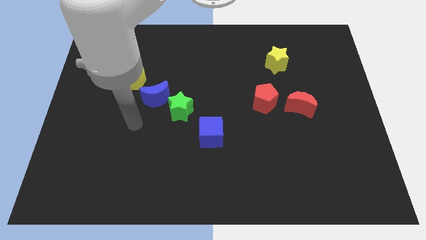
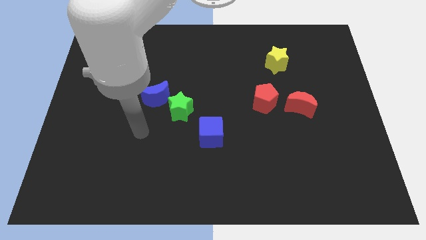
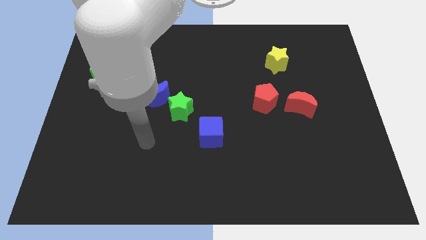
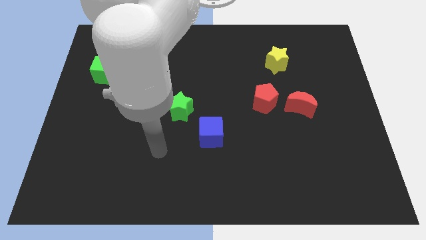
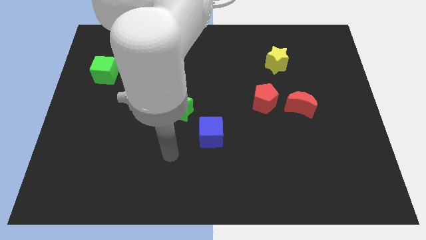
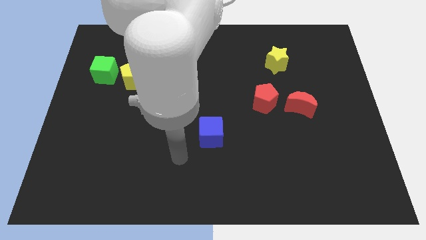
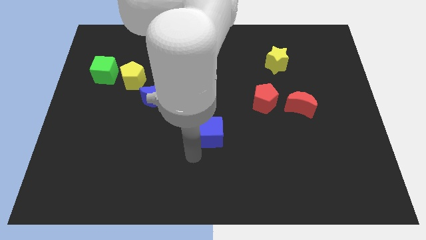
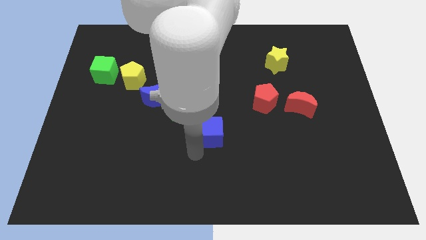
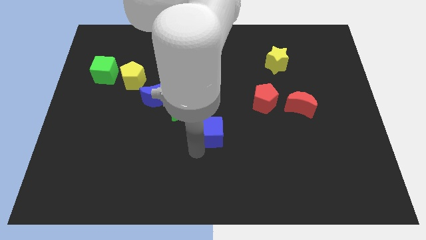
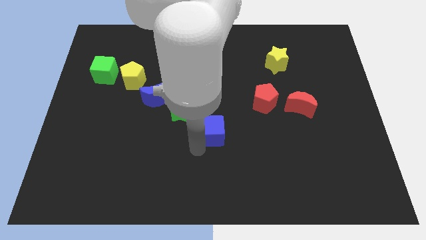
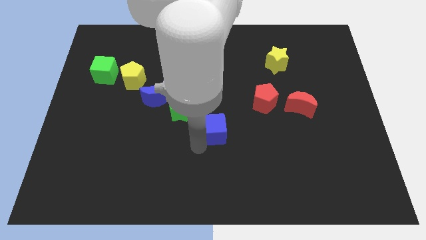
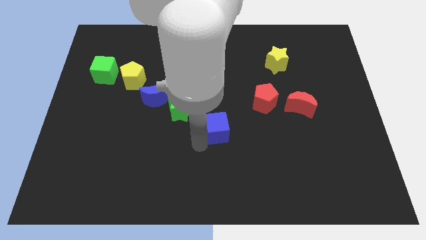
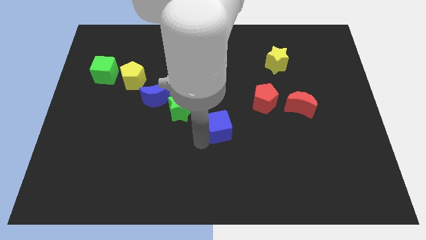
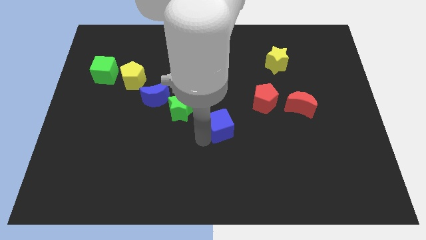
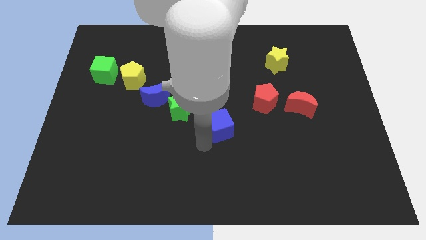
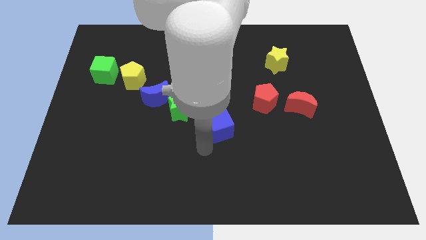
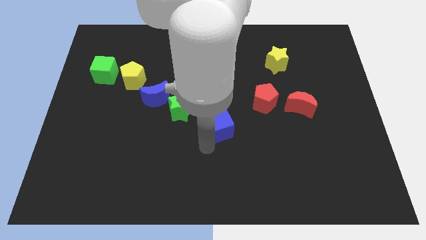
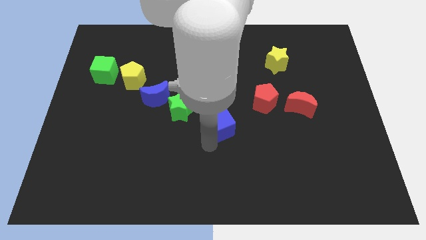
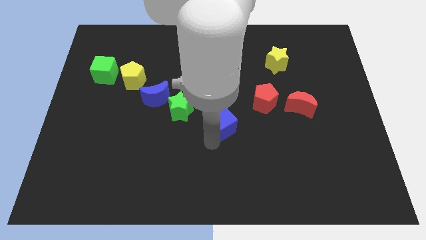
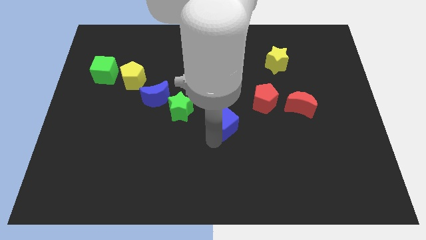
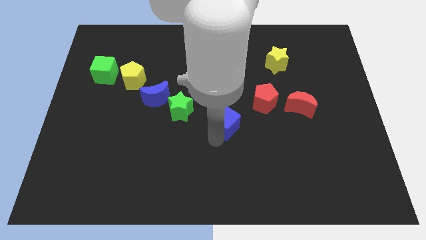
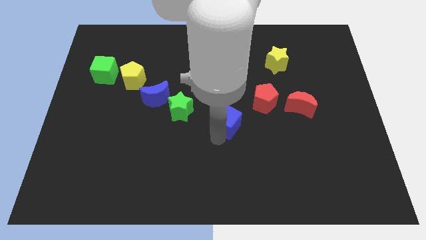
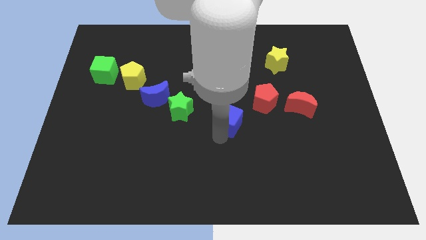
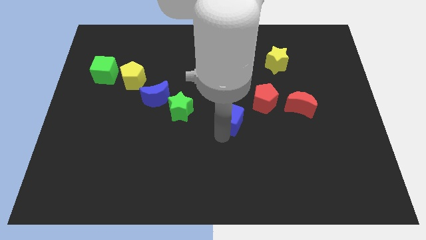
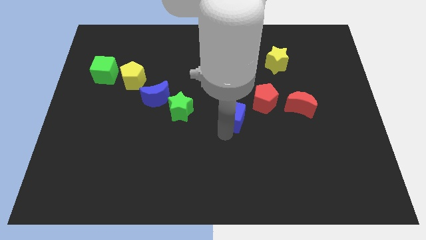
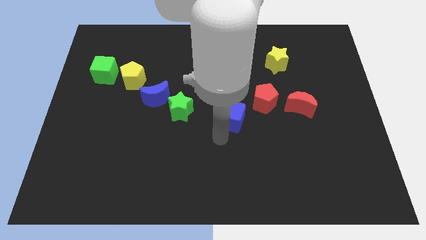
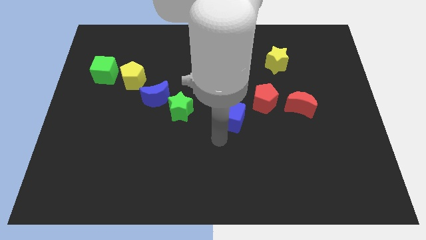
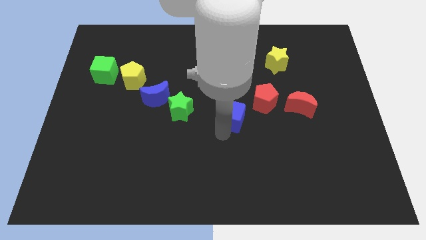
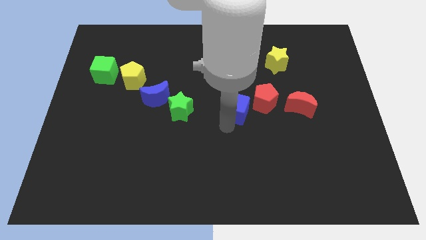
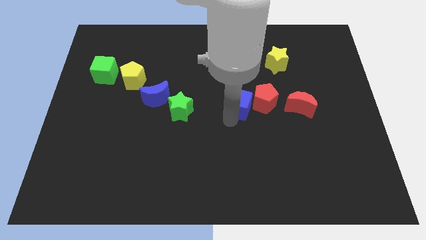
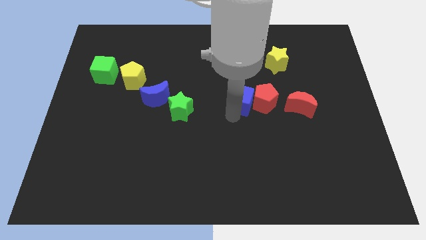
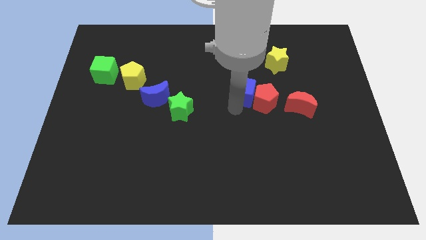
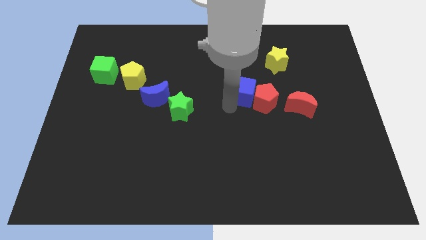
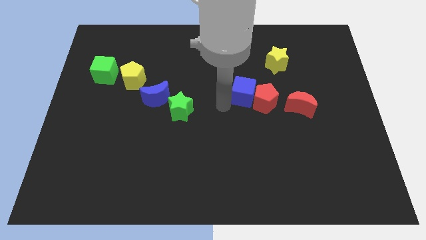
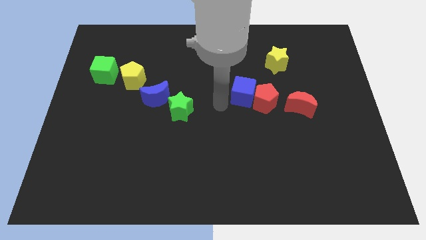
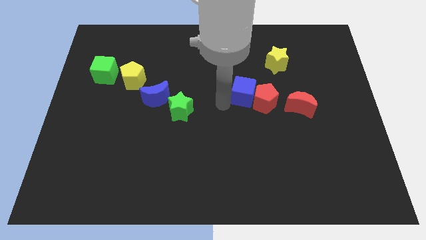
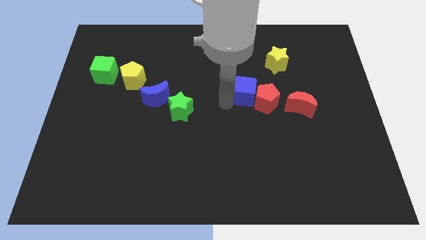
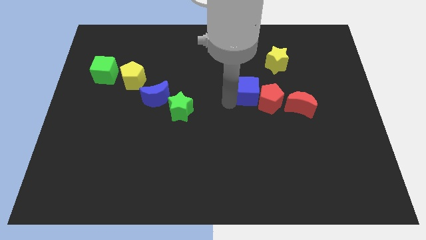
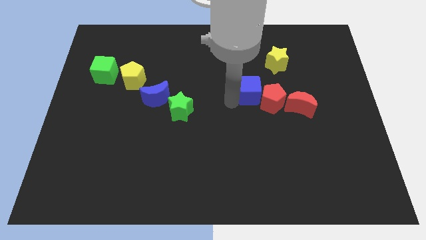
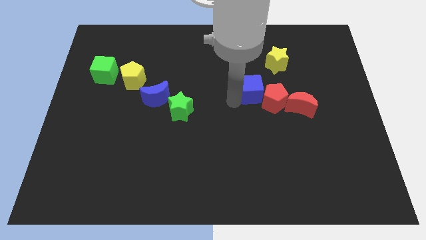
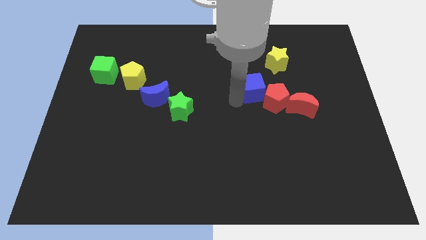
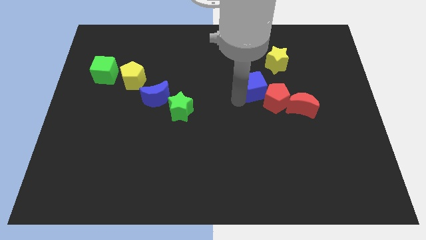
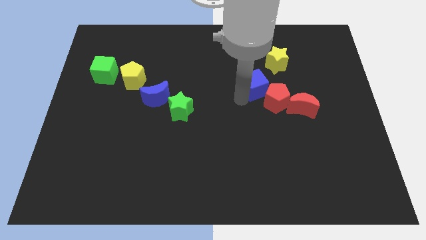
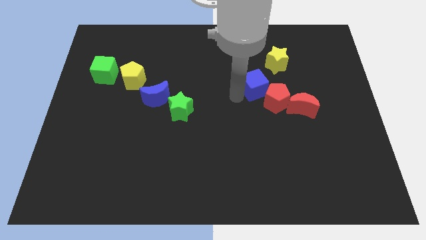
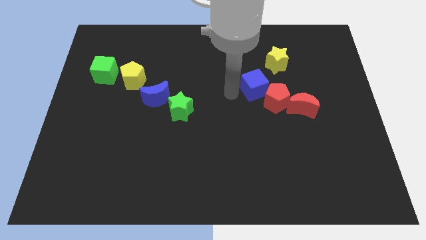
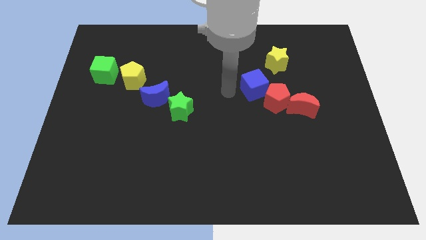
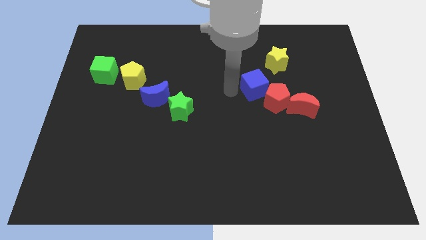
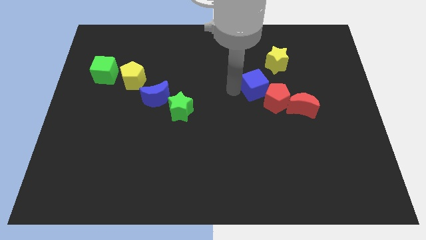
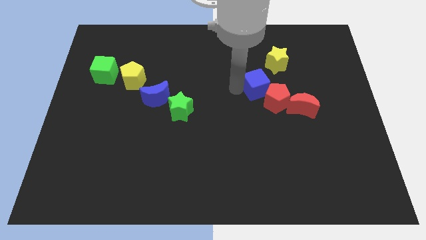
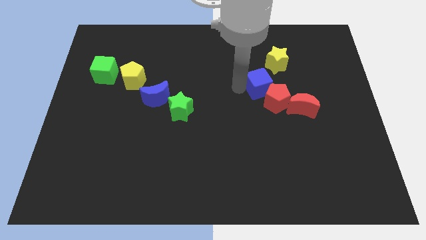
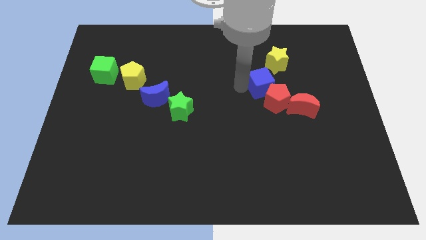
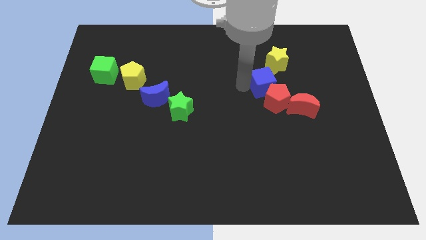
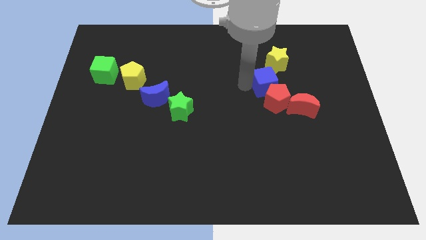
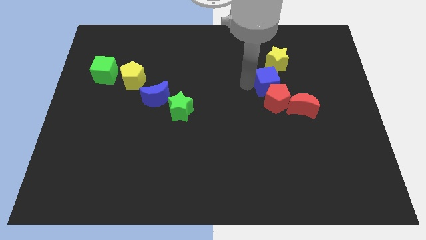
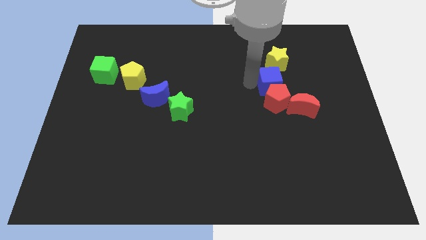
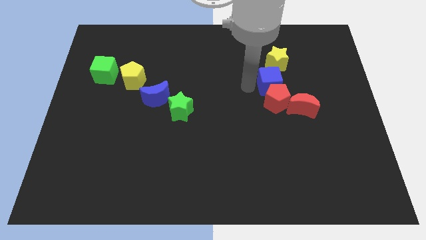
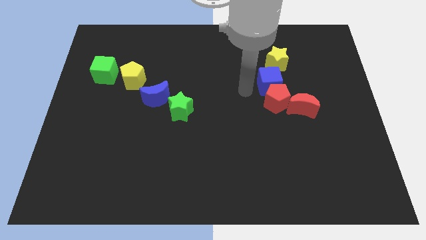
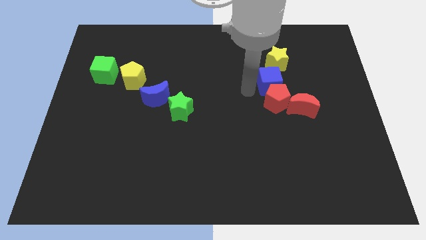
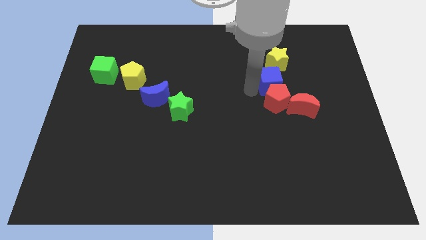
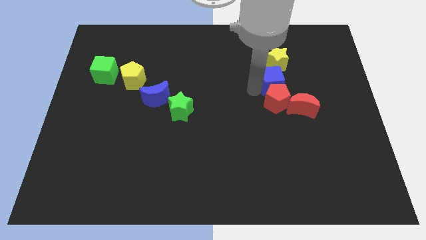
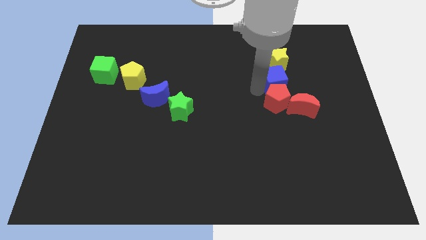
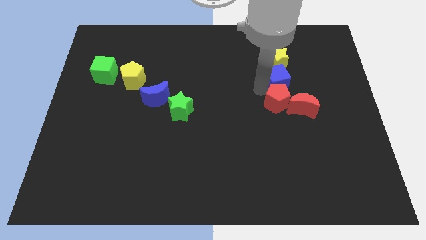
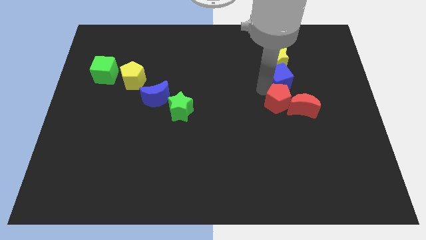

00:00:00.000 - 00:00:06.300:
slide the blue cube to the top of the red moon
